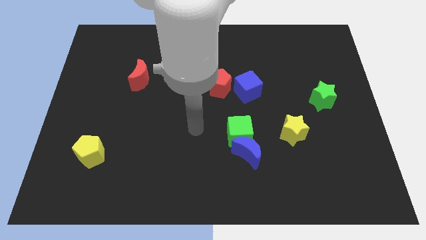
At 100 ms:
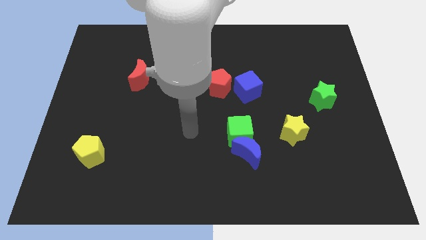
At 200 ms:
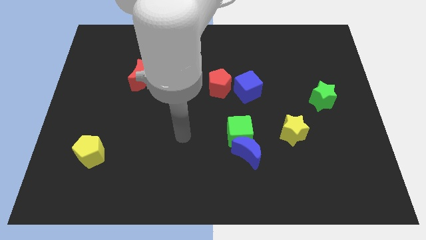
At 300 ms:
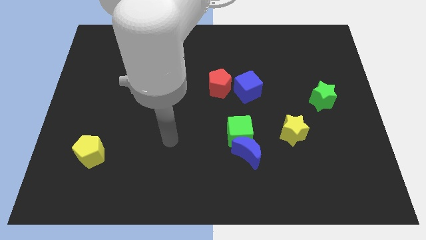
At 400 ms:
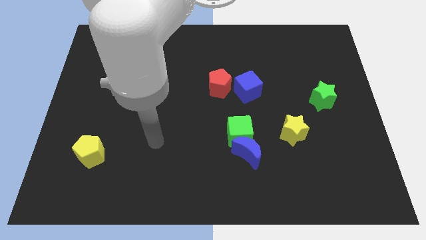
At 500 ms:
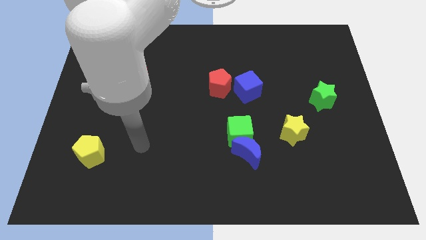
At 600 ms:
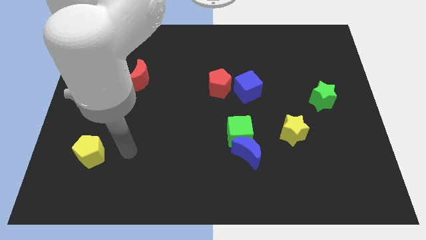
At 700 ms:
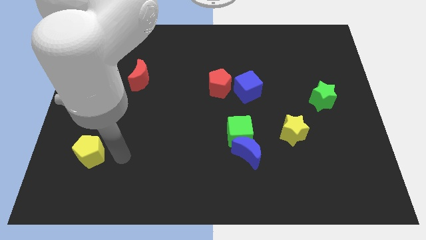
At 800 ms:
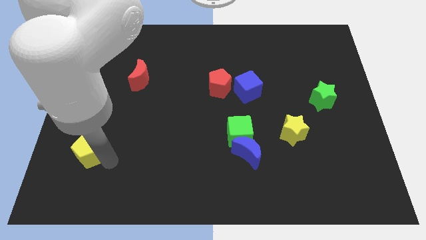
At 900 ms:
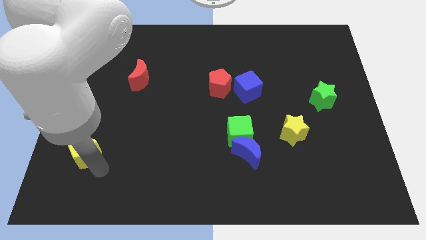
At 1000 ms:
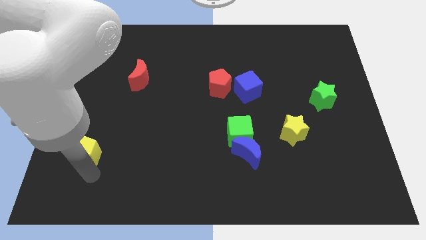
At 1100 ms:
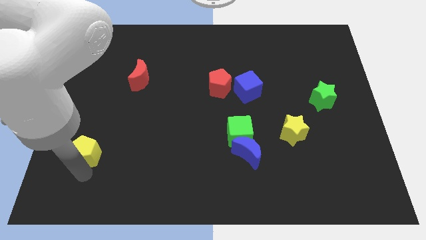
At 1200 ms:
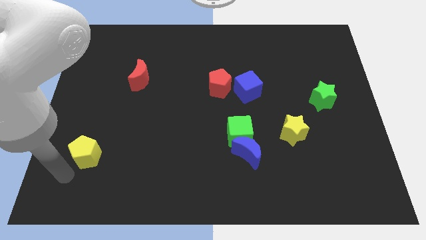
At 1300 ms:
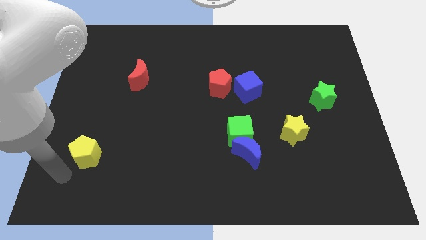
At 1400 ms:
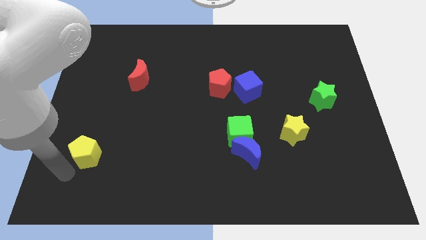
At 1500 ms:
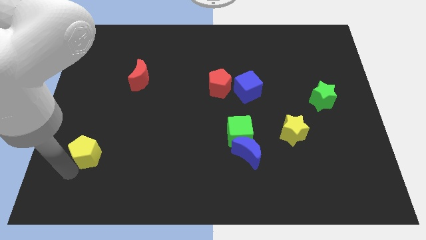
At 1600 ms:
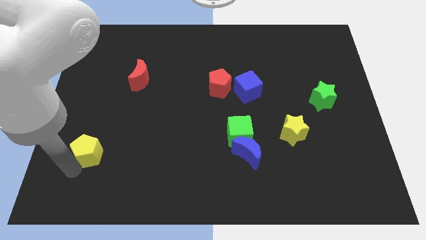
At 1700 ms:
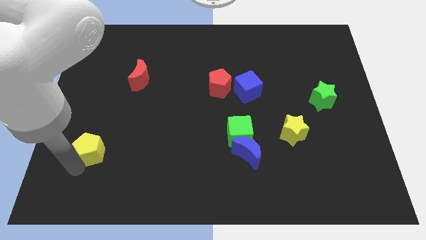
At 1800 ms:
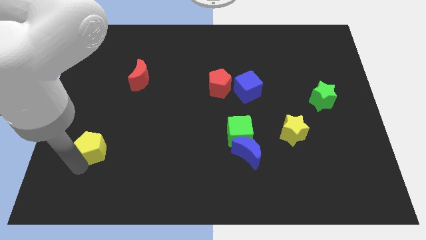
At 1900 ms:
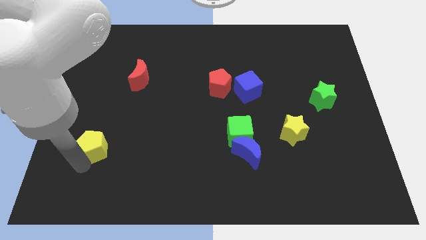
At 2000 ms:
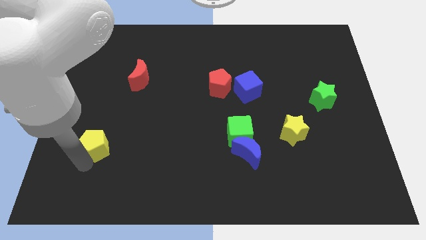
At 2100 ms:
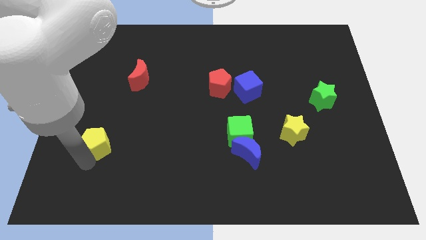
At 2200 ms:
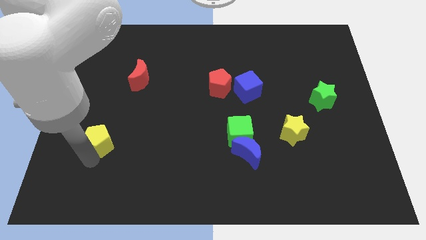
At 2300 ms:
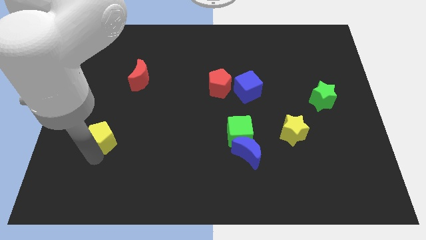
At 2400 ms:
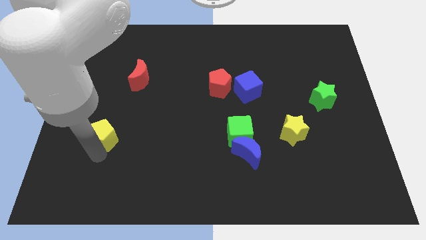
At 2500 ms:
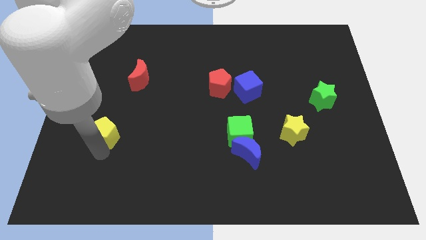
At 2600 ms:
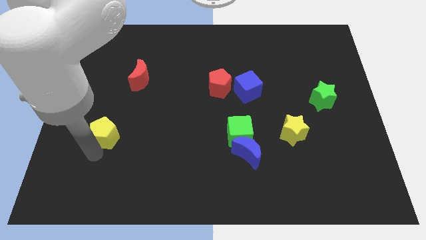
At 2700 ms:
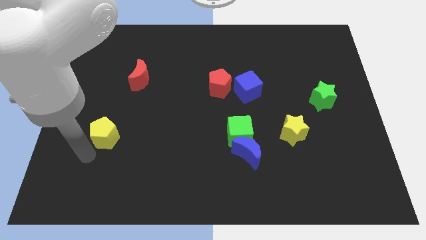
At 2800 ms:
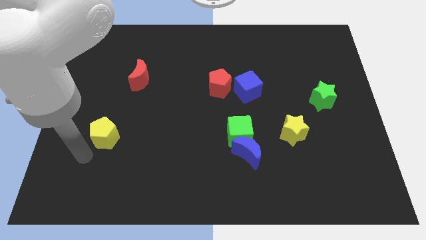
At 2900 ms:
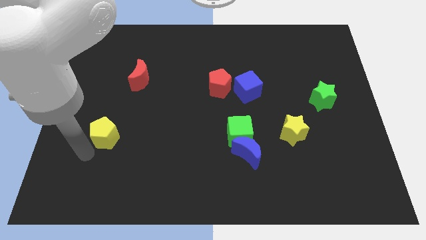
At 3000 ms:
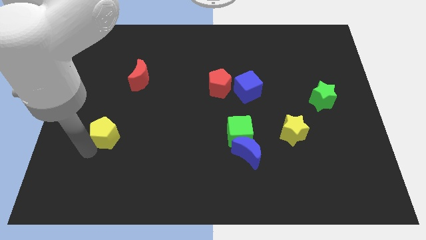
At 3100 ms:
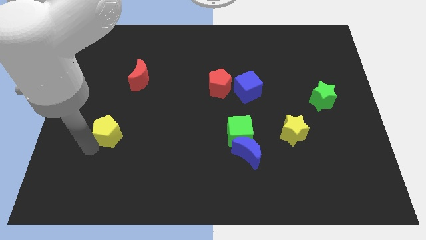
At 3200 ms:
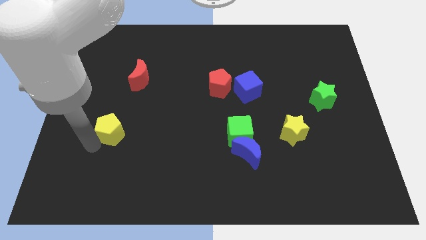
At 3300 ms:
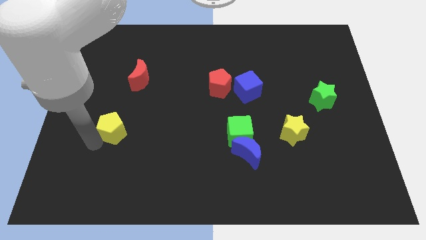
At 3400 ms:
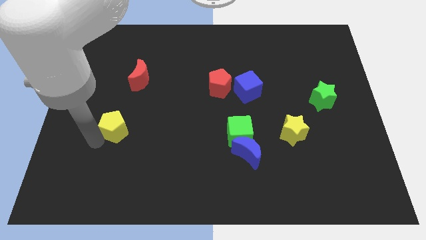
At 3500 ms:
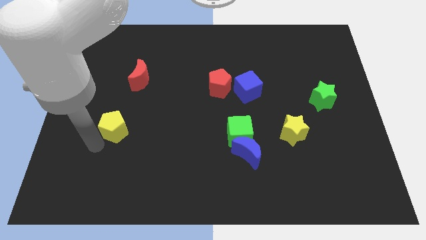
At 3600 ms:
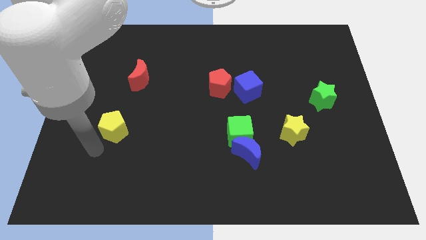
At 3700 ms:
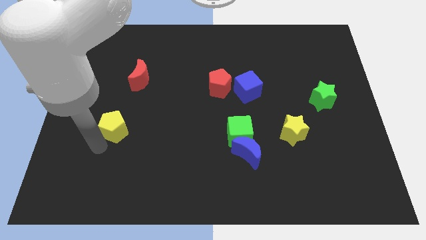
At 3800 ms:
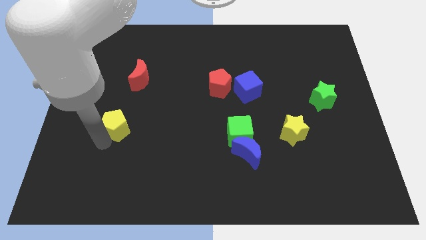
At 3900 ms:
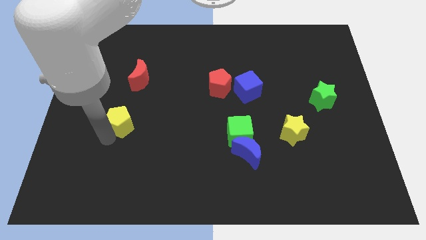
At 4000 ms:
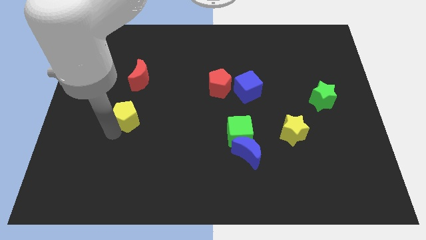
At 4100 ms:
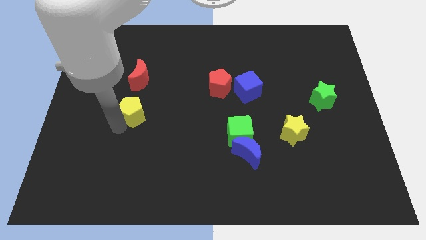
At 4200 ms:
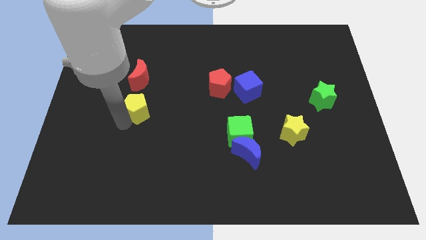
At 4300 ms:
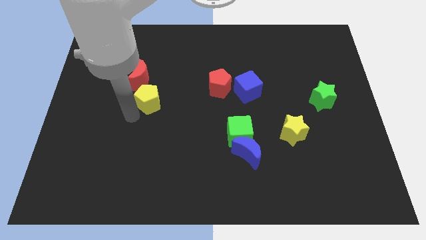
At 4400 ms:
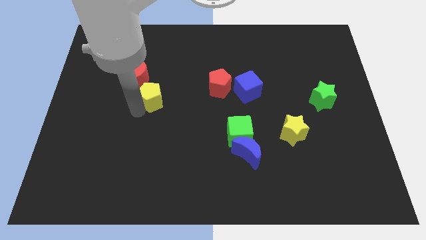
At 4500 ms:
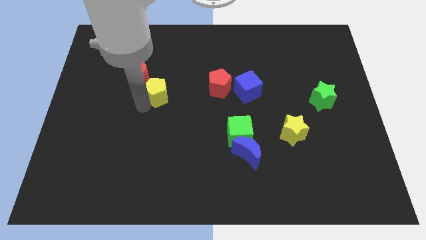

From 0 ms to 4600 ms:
move the yellow pentagon up and right diagonally

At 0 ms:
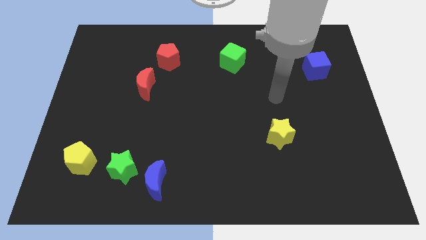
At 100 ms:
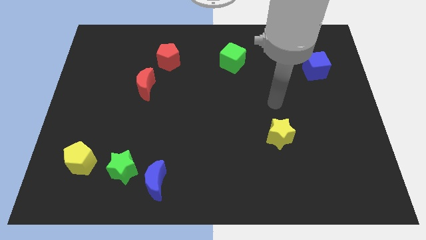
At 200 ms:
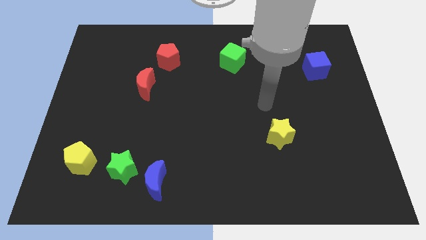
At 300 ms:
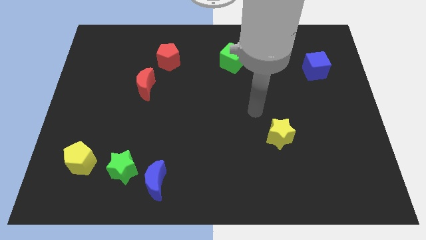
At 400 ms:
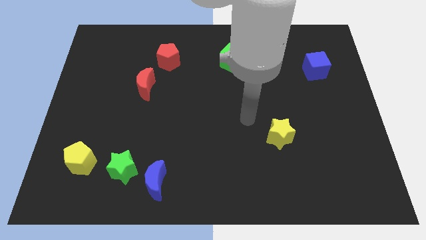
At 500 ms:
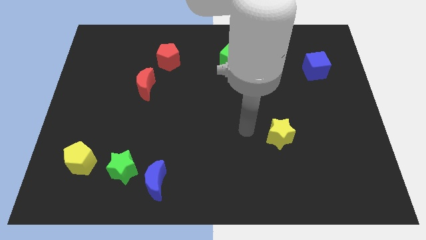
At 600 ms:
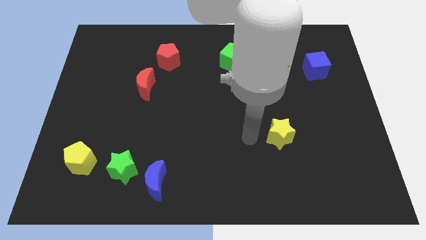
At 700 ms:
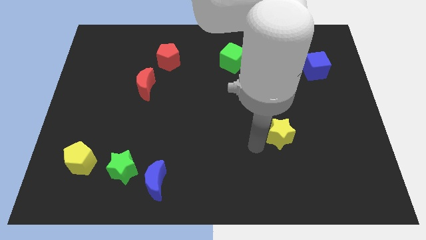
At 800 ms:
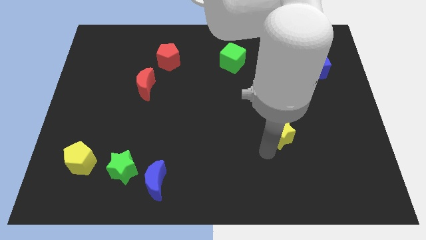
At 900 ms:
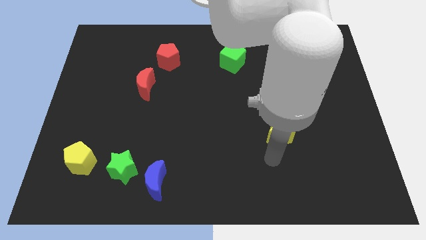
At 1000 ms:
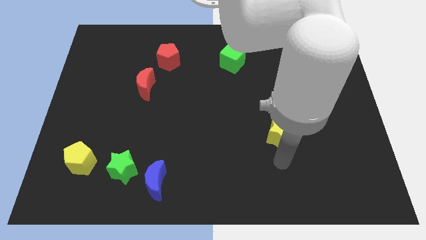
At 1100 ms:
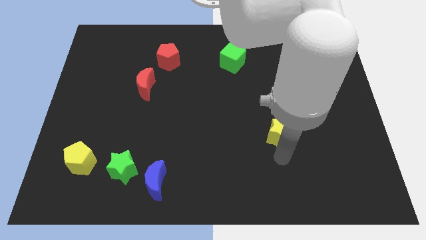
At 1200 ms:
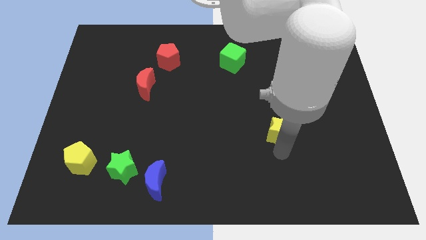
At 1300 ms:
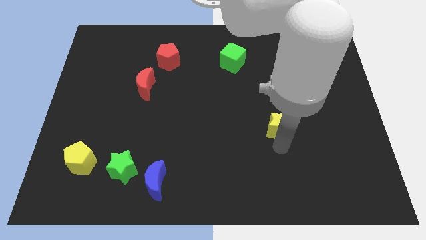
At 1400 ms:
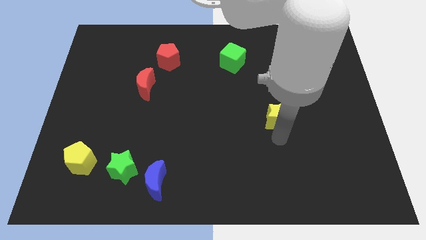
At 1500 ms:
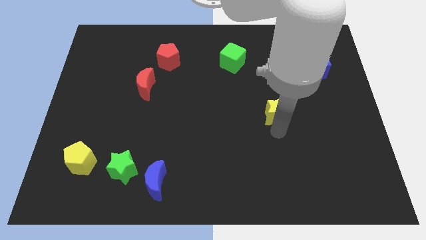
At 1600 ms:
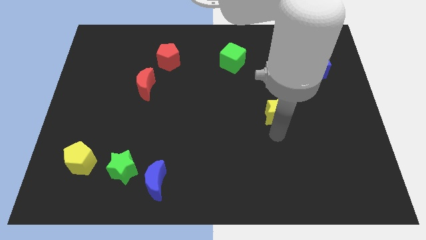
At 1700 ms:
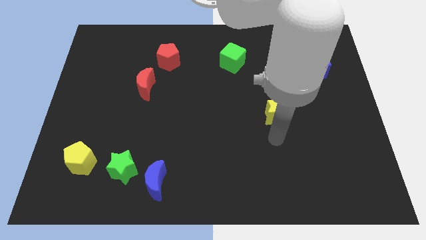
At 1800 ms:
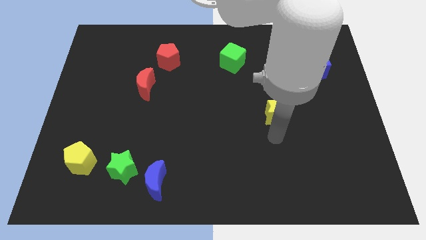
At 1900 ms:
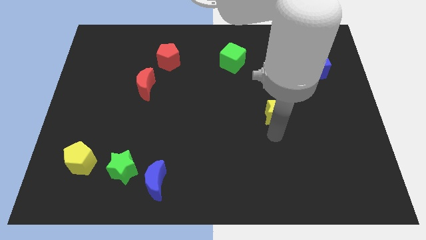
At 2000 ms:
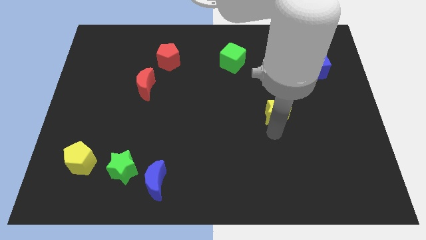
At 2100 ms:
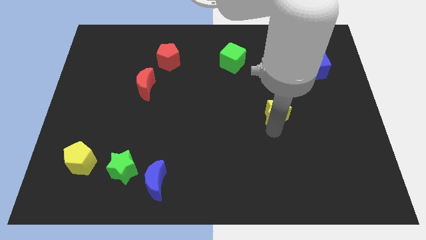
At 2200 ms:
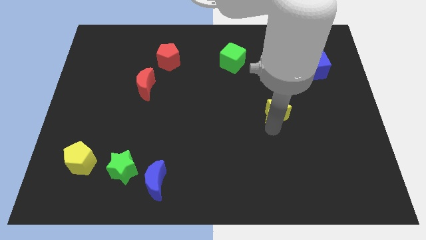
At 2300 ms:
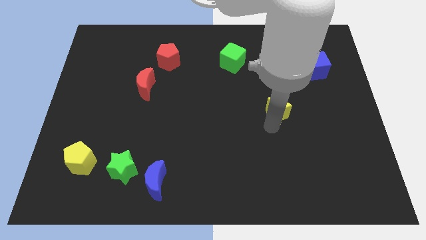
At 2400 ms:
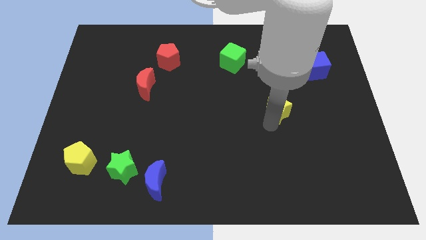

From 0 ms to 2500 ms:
move the yellow star upwards a little

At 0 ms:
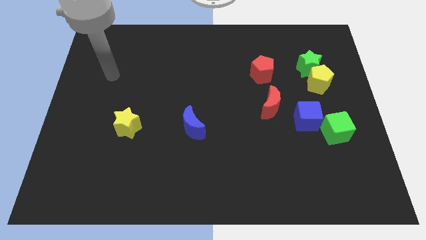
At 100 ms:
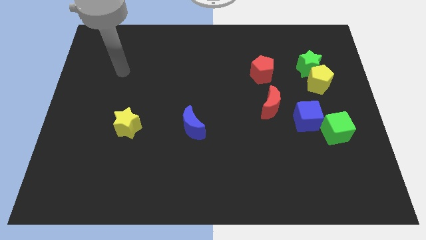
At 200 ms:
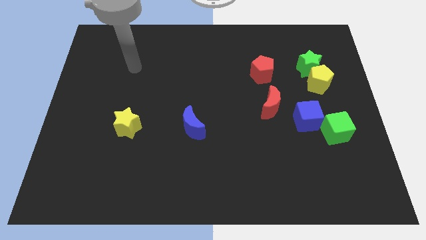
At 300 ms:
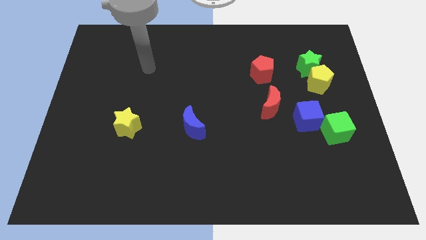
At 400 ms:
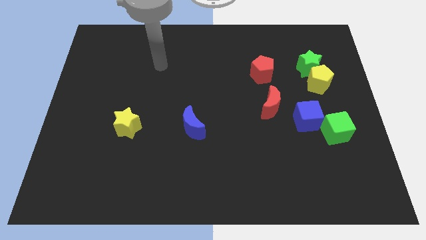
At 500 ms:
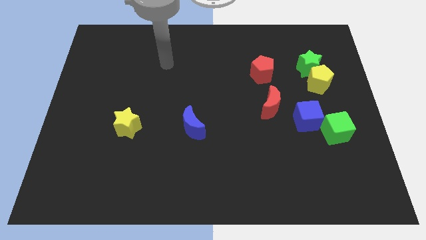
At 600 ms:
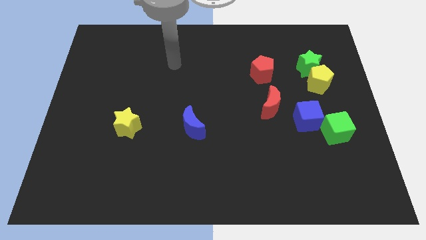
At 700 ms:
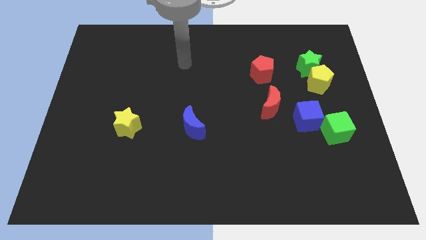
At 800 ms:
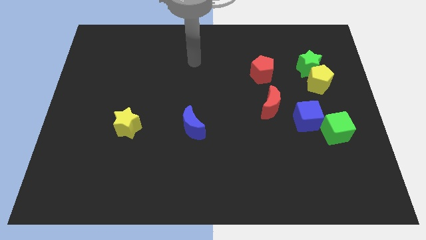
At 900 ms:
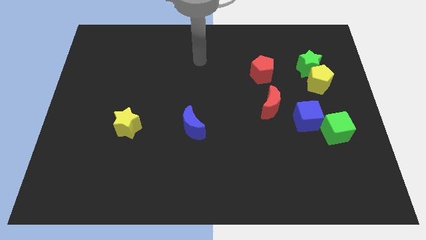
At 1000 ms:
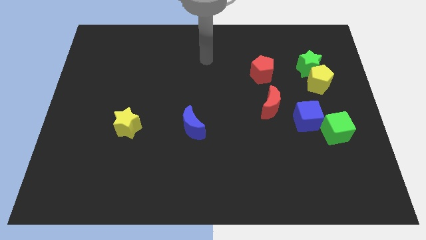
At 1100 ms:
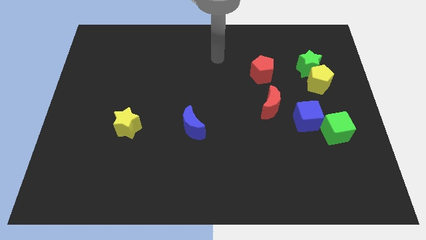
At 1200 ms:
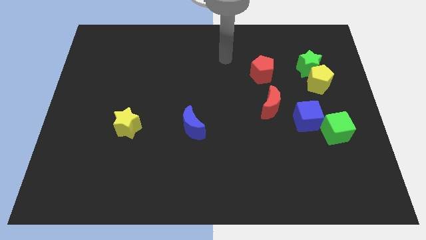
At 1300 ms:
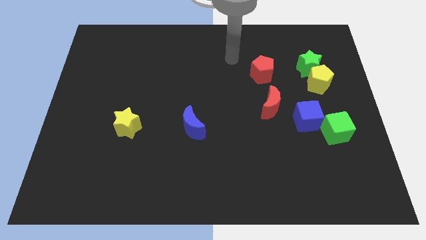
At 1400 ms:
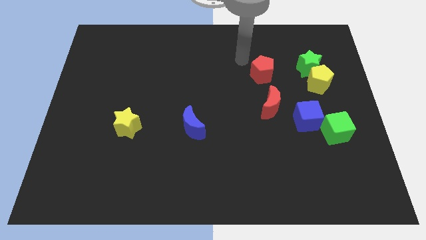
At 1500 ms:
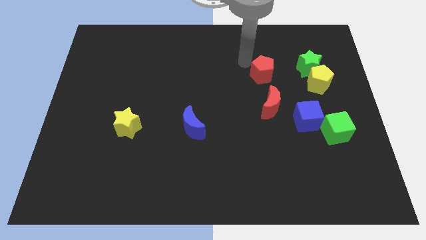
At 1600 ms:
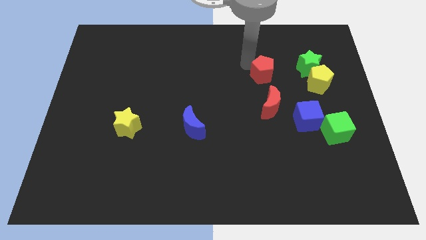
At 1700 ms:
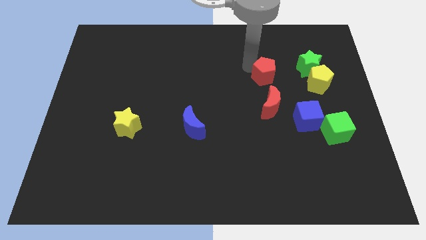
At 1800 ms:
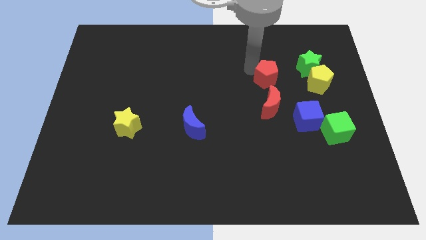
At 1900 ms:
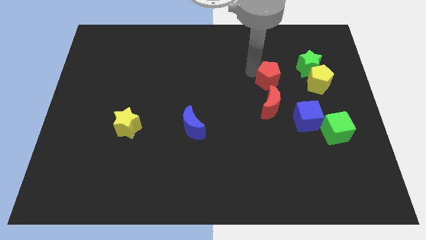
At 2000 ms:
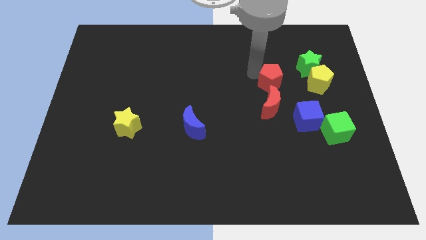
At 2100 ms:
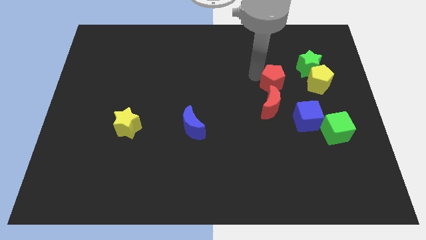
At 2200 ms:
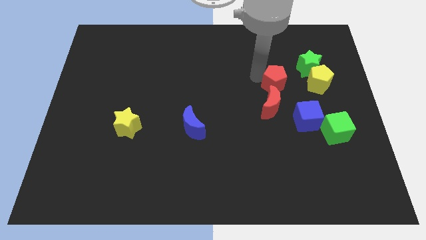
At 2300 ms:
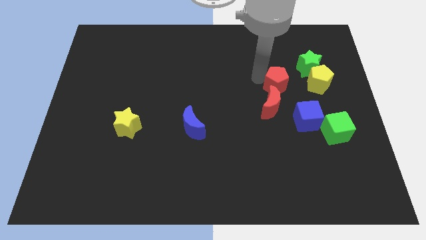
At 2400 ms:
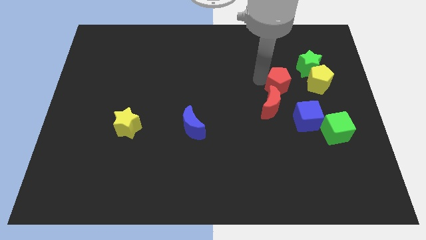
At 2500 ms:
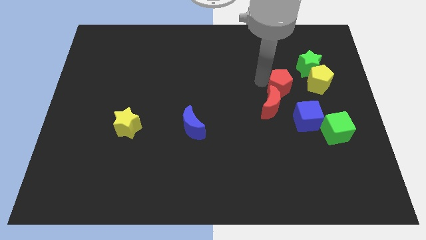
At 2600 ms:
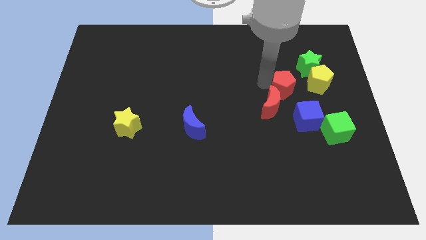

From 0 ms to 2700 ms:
slightly move the red pentagon diagonally downwards and to the right
